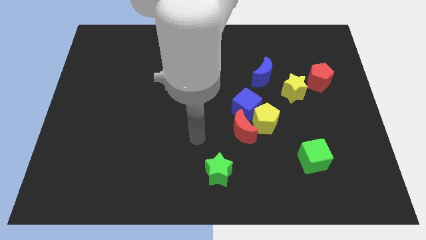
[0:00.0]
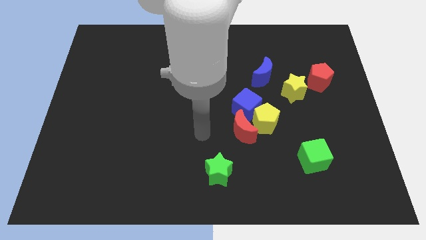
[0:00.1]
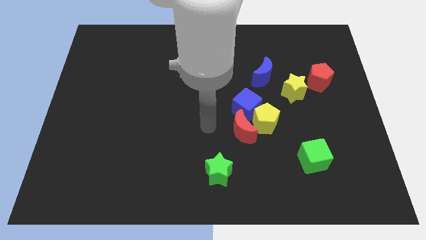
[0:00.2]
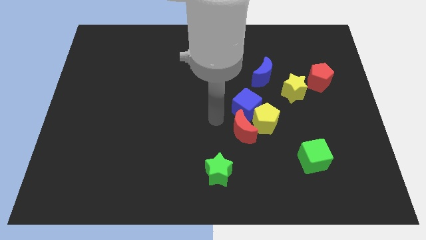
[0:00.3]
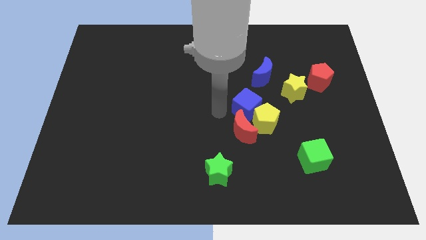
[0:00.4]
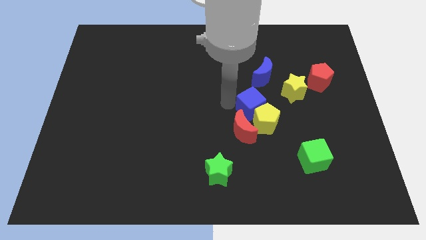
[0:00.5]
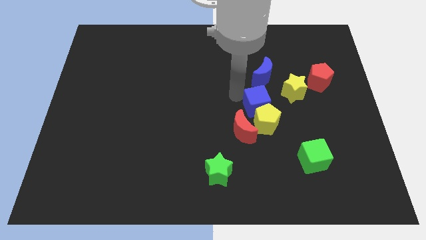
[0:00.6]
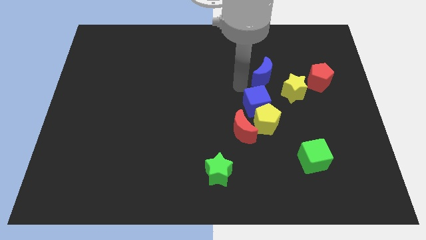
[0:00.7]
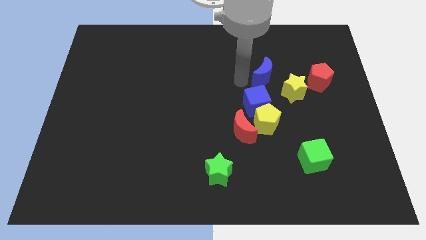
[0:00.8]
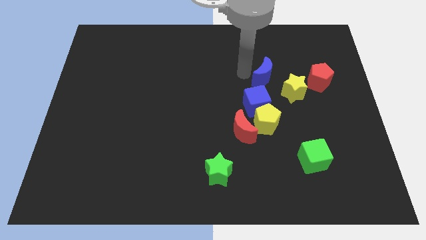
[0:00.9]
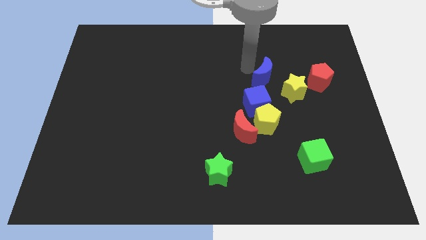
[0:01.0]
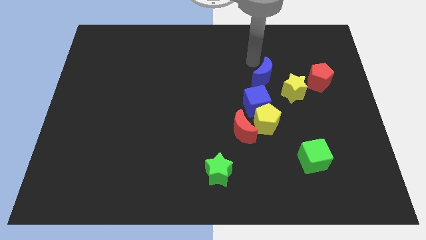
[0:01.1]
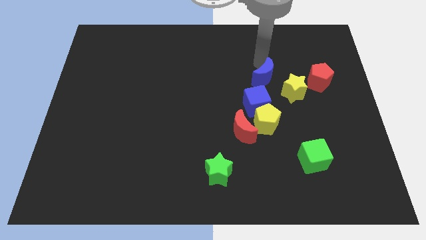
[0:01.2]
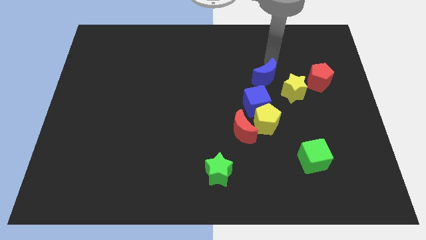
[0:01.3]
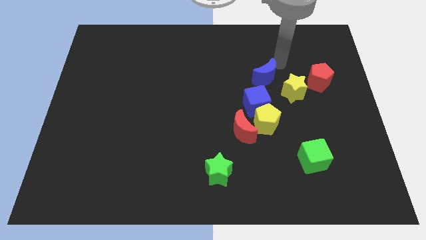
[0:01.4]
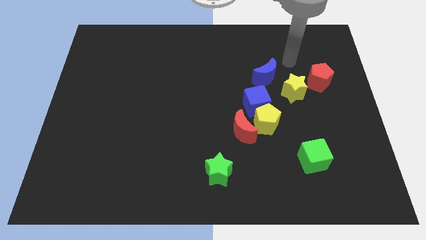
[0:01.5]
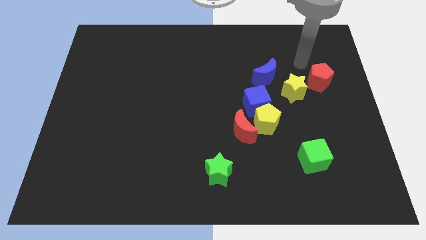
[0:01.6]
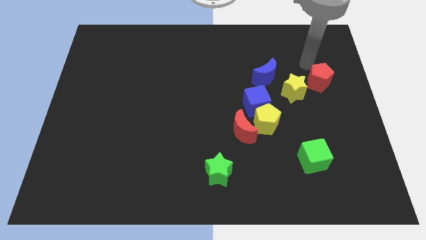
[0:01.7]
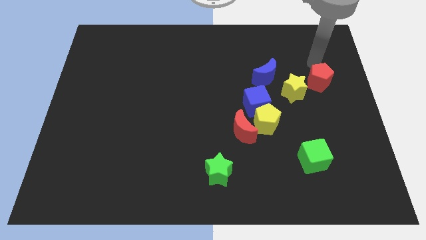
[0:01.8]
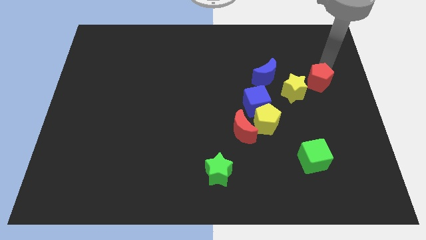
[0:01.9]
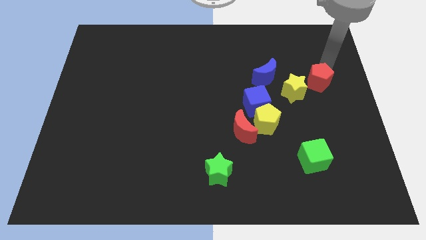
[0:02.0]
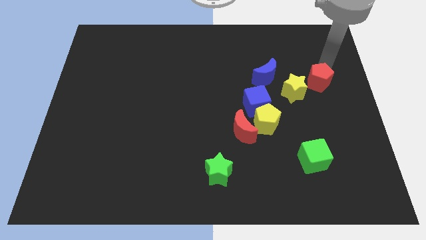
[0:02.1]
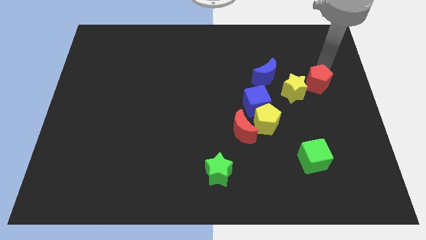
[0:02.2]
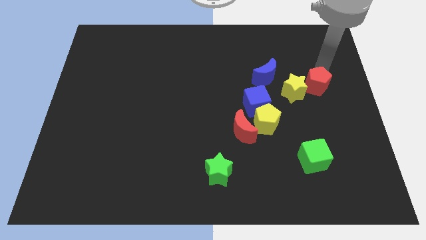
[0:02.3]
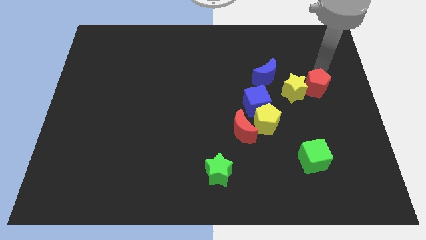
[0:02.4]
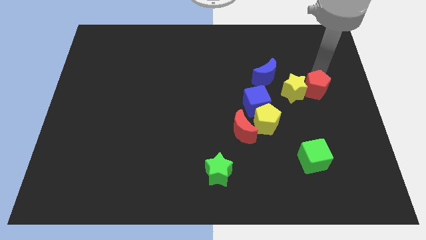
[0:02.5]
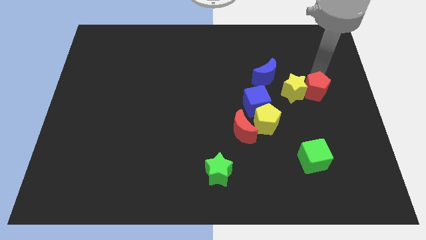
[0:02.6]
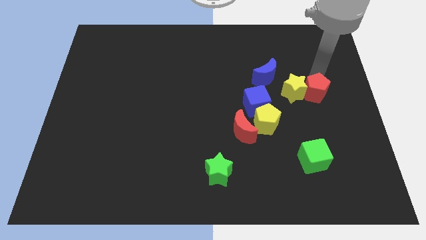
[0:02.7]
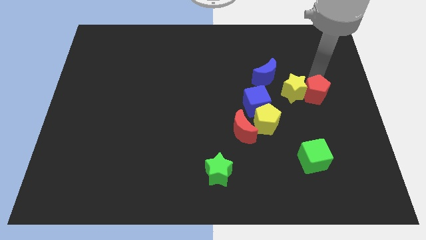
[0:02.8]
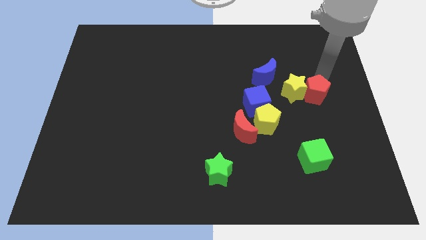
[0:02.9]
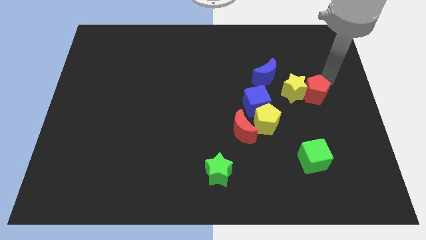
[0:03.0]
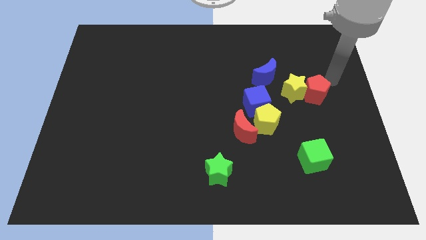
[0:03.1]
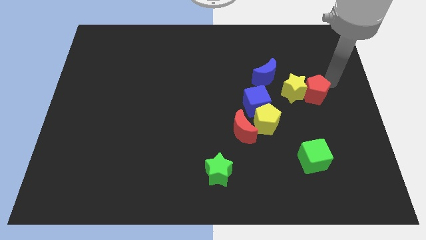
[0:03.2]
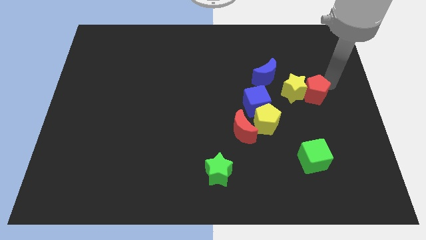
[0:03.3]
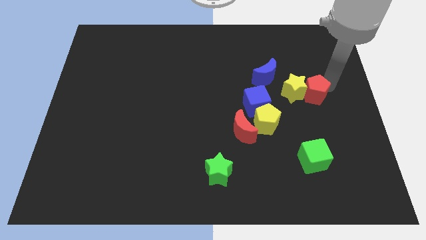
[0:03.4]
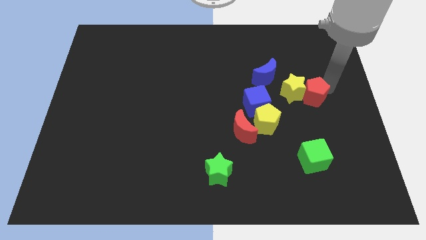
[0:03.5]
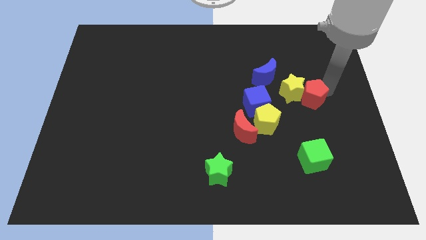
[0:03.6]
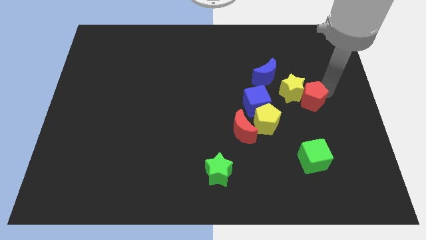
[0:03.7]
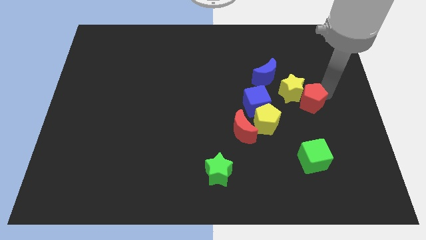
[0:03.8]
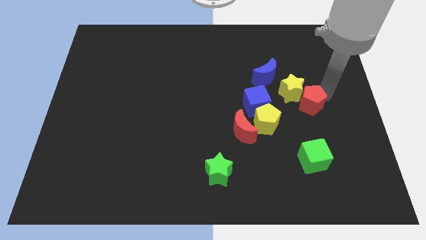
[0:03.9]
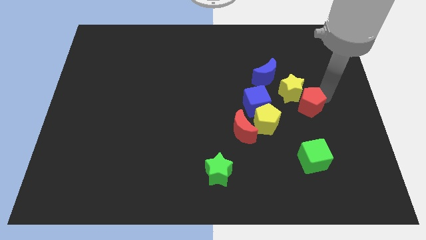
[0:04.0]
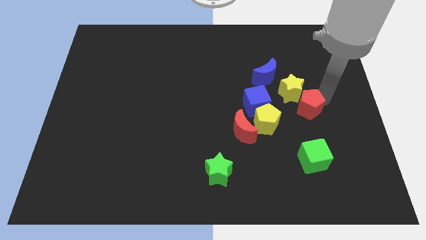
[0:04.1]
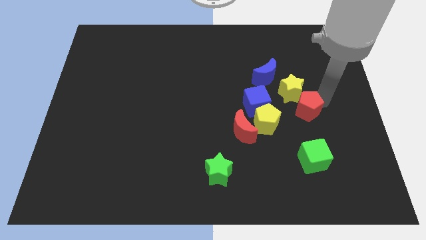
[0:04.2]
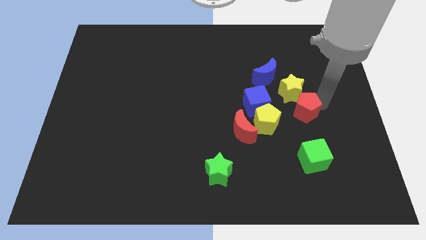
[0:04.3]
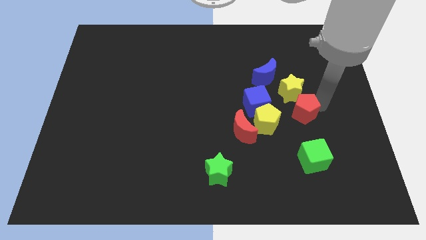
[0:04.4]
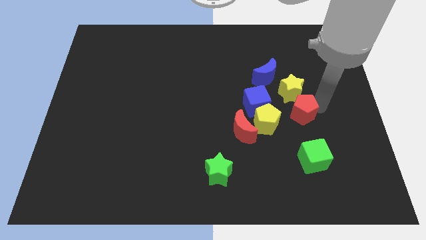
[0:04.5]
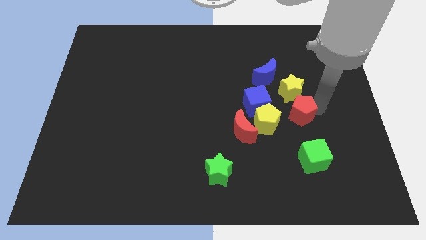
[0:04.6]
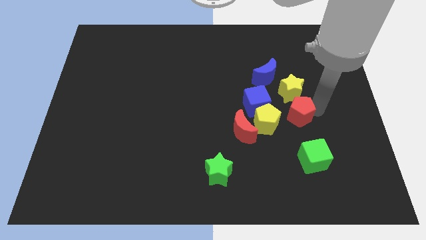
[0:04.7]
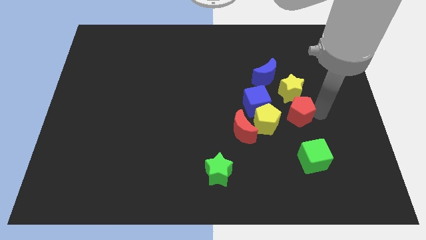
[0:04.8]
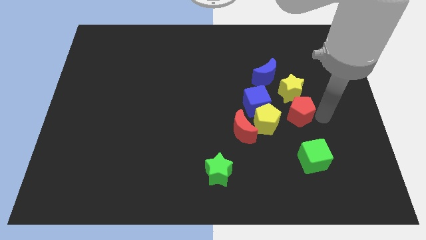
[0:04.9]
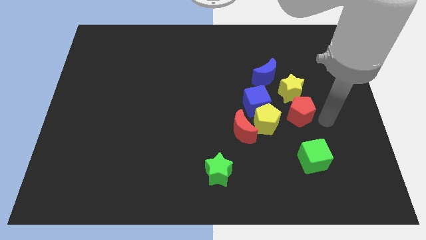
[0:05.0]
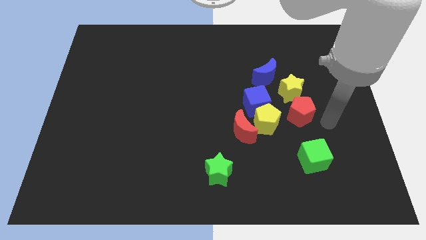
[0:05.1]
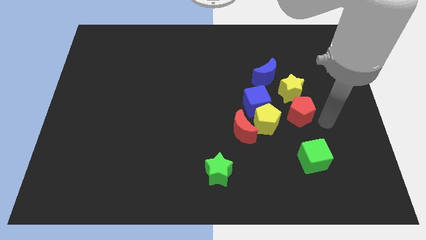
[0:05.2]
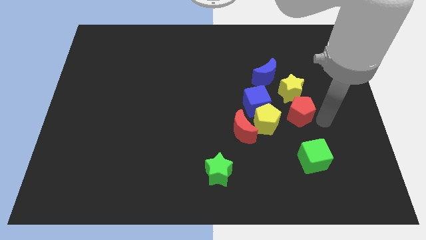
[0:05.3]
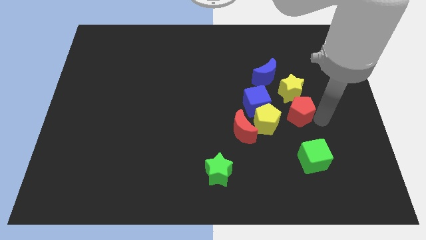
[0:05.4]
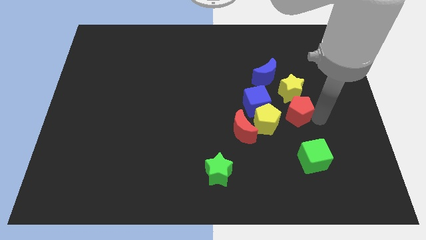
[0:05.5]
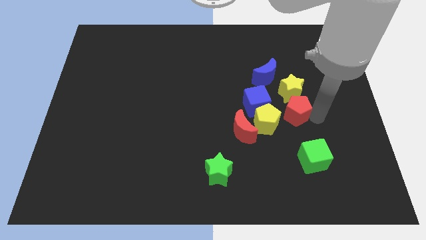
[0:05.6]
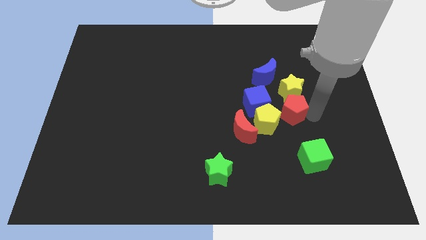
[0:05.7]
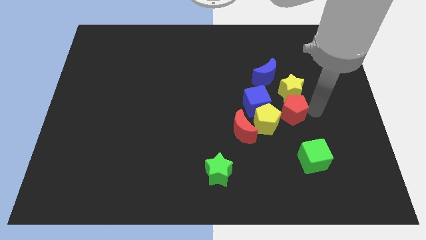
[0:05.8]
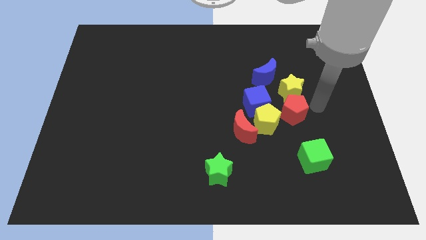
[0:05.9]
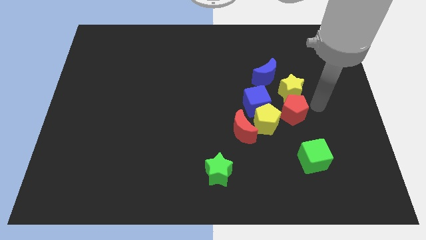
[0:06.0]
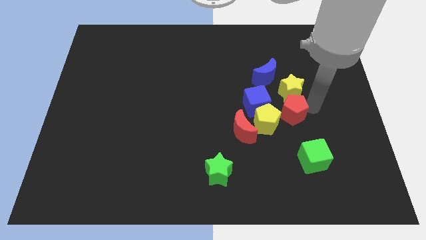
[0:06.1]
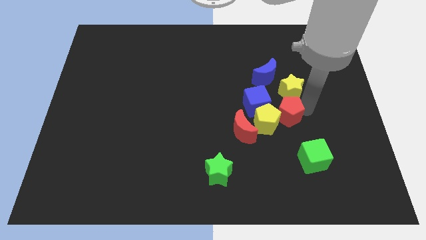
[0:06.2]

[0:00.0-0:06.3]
put the red pentagon close to the yellow pentagon

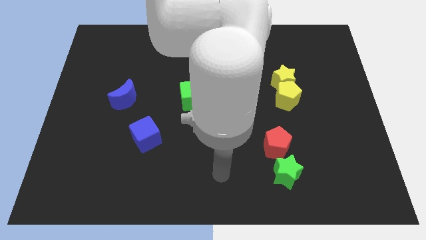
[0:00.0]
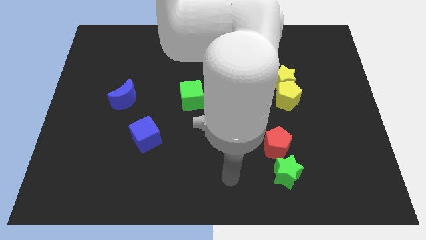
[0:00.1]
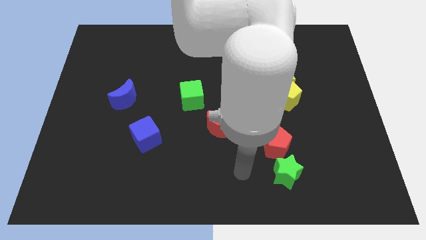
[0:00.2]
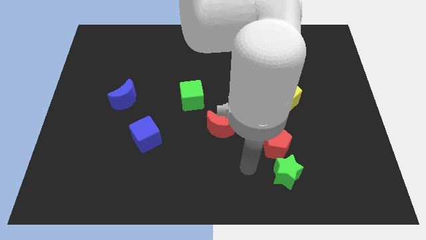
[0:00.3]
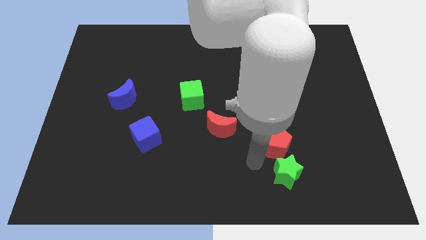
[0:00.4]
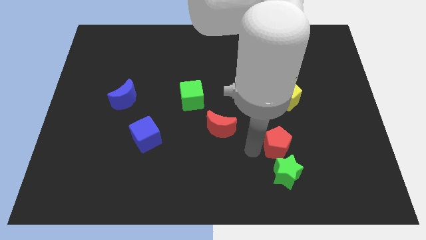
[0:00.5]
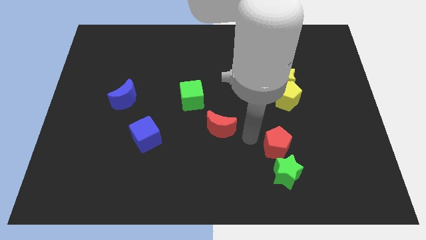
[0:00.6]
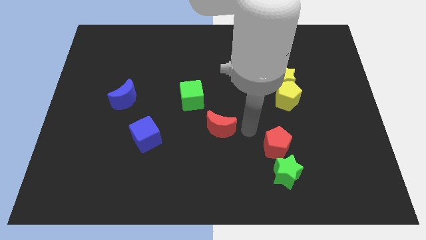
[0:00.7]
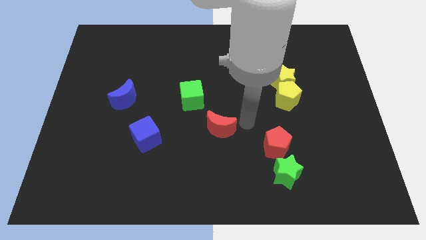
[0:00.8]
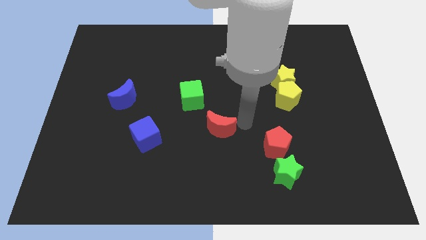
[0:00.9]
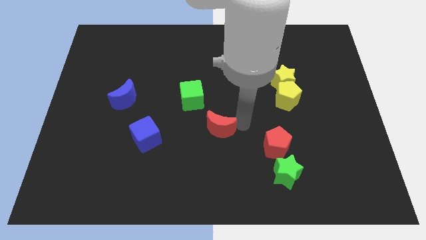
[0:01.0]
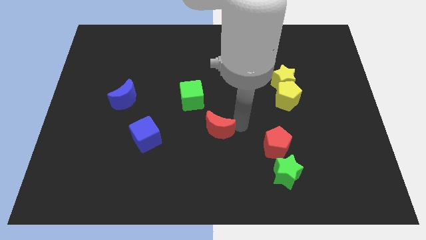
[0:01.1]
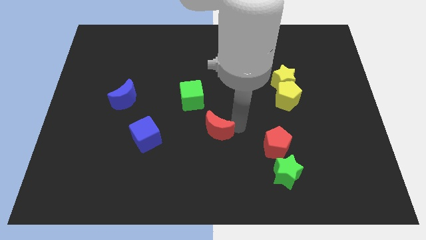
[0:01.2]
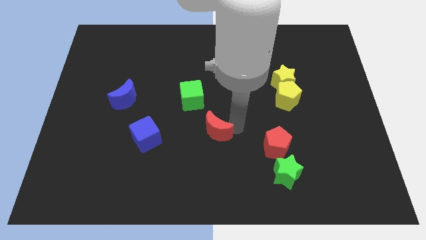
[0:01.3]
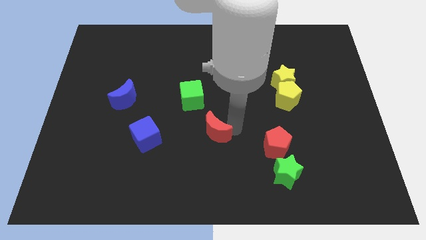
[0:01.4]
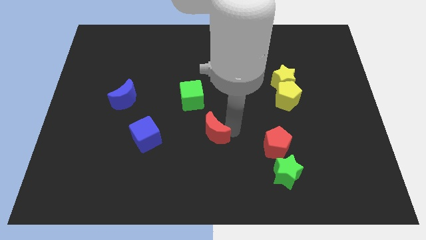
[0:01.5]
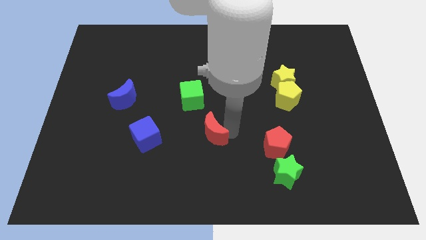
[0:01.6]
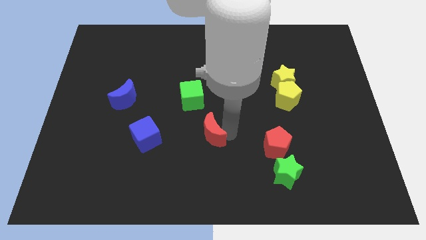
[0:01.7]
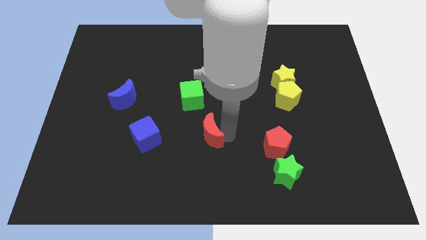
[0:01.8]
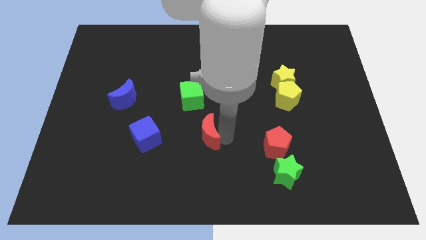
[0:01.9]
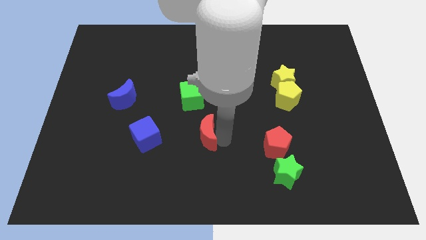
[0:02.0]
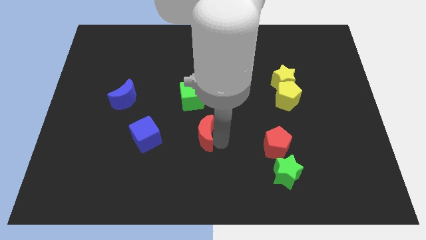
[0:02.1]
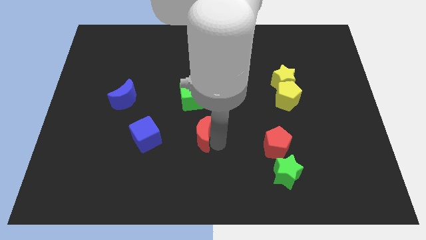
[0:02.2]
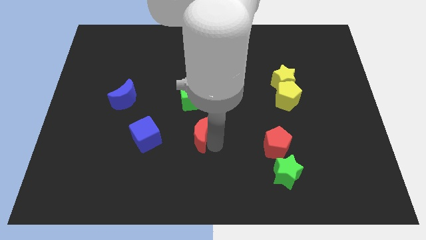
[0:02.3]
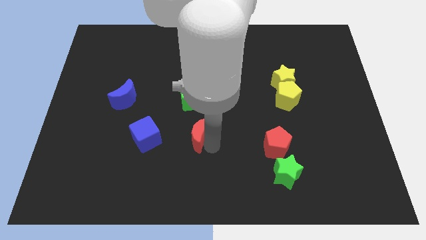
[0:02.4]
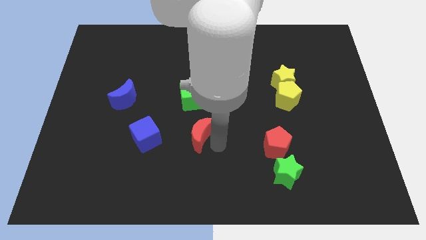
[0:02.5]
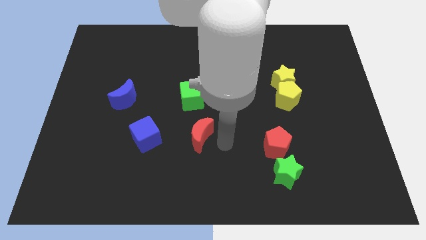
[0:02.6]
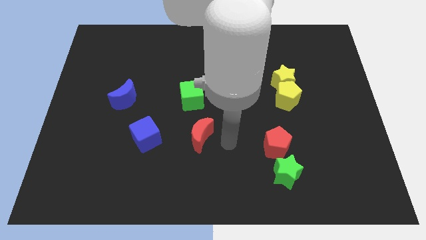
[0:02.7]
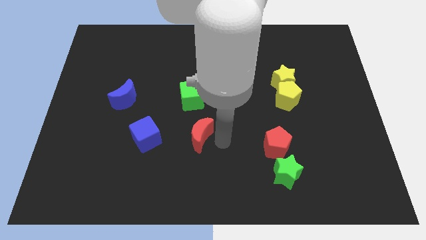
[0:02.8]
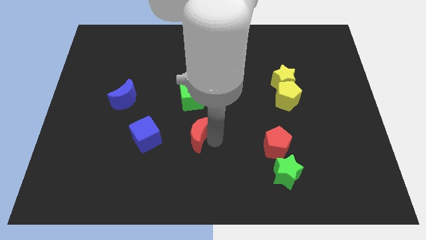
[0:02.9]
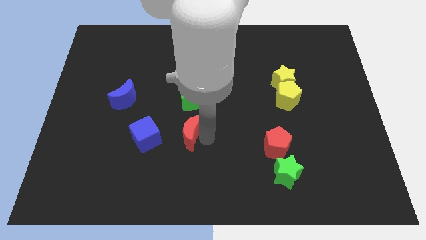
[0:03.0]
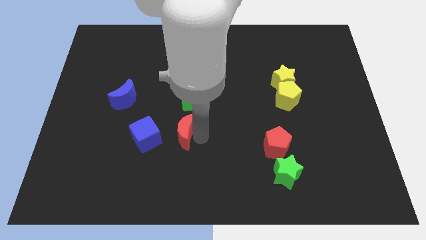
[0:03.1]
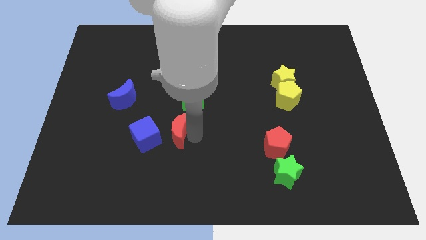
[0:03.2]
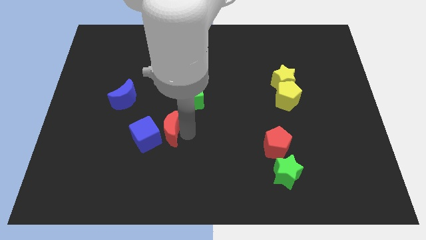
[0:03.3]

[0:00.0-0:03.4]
push the red moon close to the blue cube
